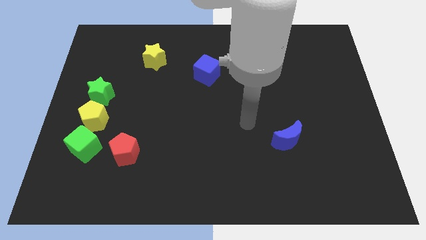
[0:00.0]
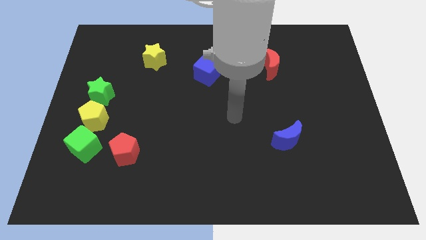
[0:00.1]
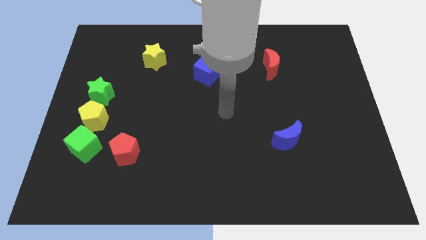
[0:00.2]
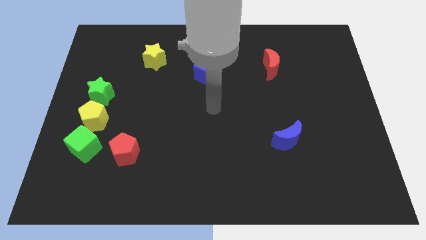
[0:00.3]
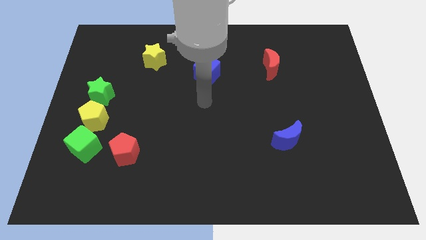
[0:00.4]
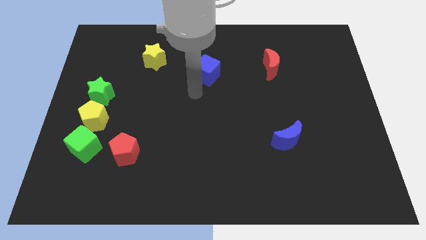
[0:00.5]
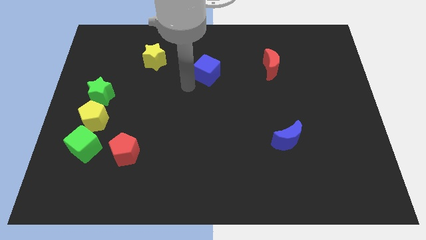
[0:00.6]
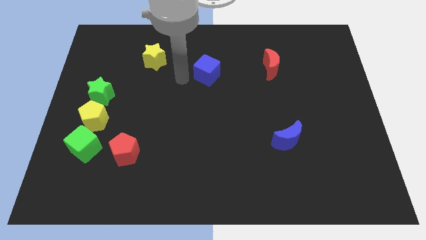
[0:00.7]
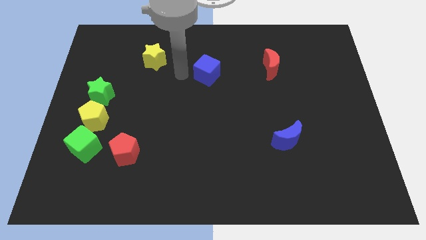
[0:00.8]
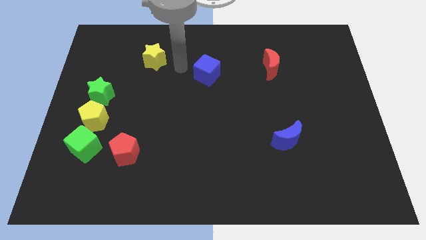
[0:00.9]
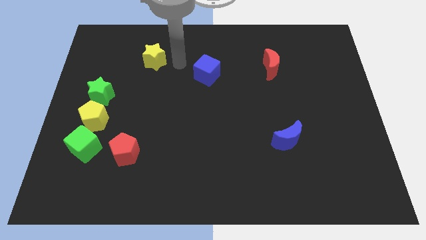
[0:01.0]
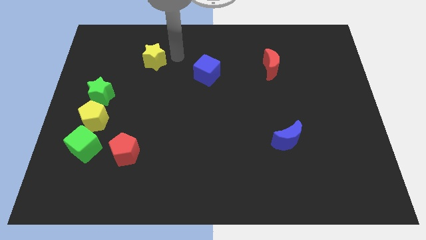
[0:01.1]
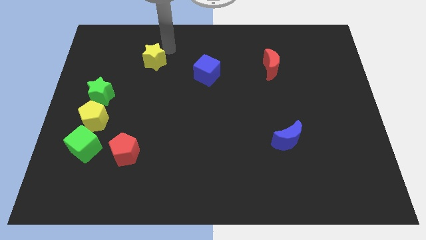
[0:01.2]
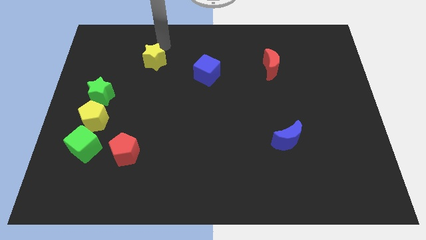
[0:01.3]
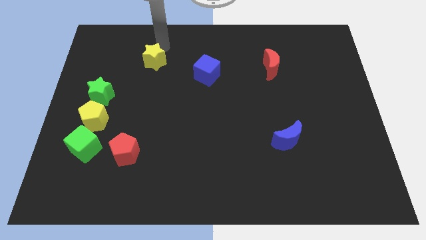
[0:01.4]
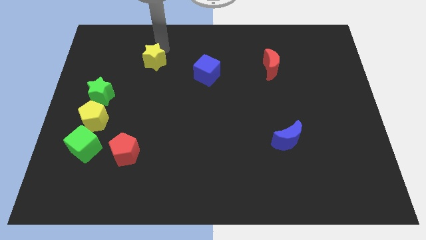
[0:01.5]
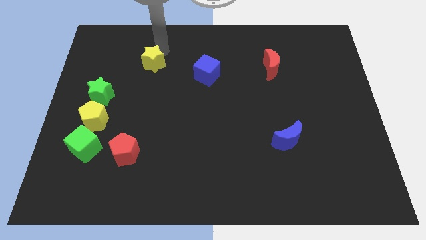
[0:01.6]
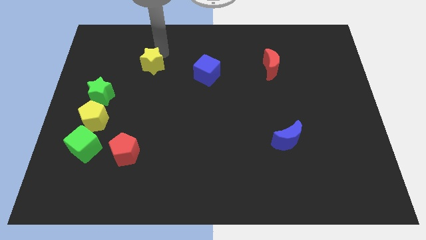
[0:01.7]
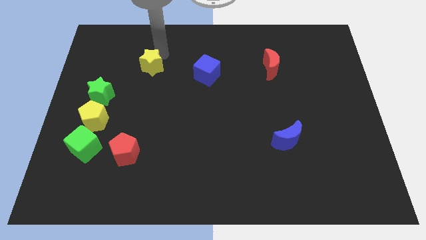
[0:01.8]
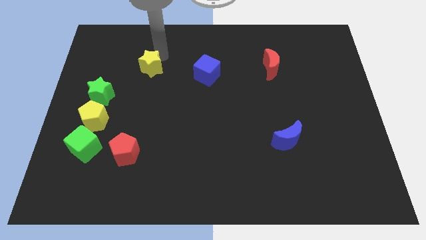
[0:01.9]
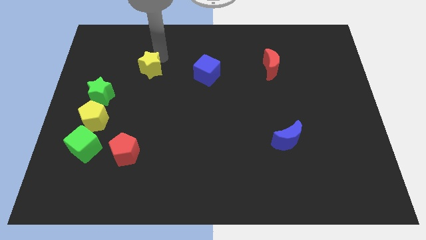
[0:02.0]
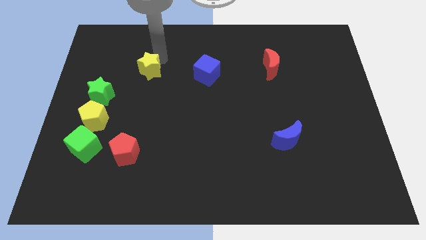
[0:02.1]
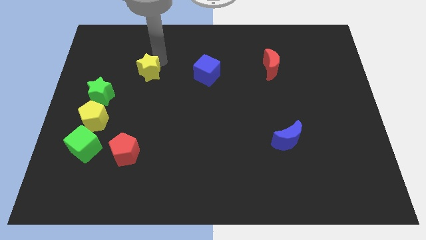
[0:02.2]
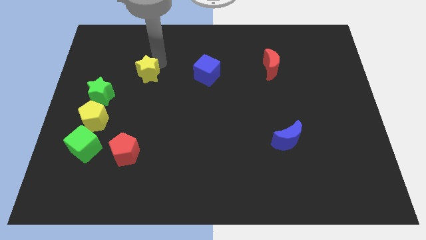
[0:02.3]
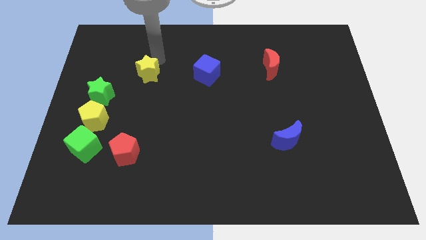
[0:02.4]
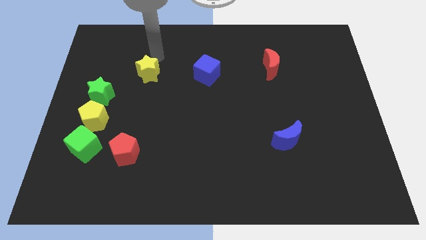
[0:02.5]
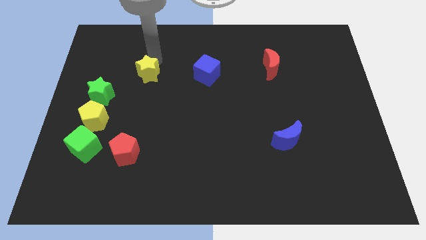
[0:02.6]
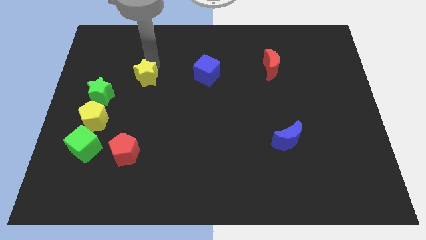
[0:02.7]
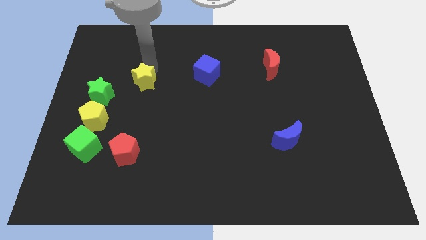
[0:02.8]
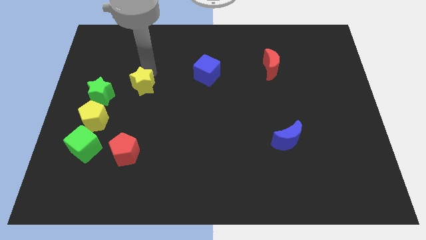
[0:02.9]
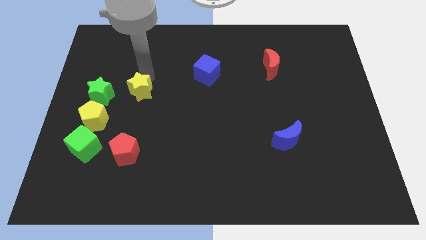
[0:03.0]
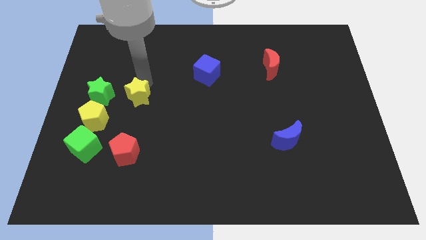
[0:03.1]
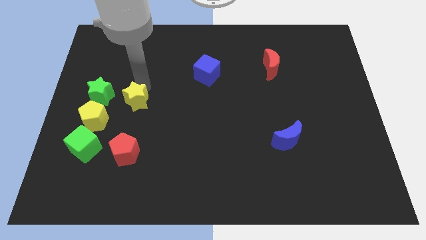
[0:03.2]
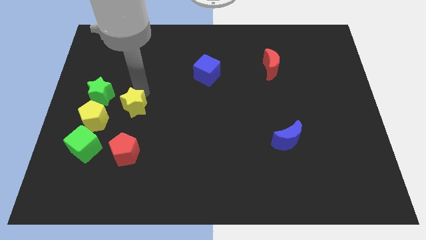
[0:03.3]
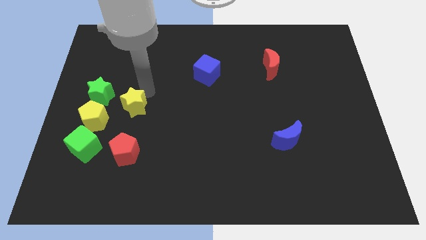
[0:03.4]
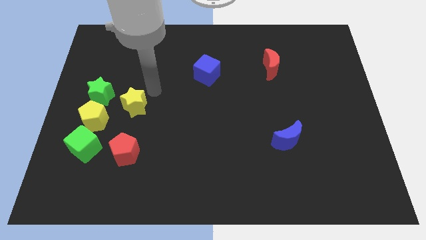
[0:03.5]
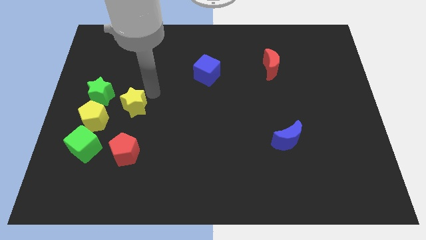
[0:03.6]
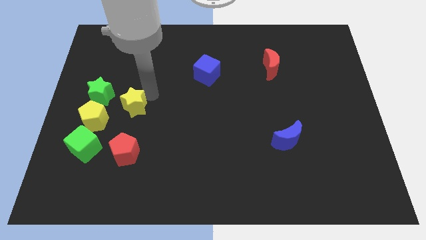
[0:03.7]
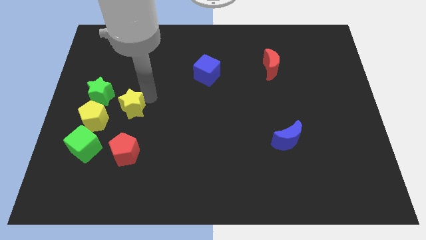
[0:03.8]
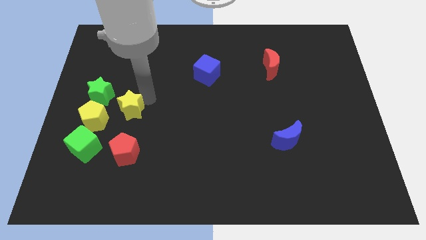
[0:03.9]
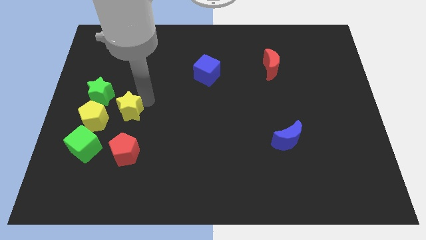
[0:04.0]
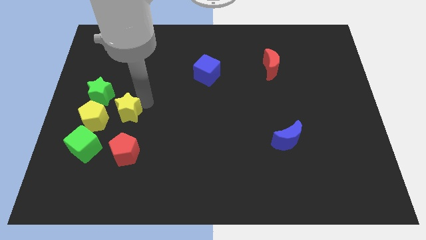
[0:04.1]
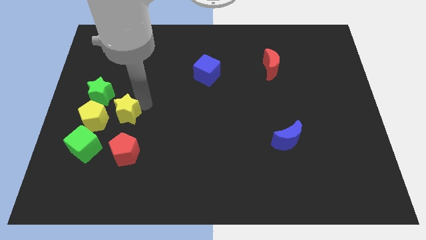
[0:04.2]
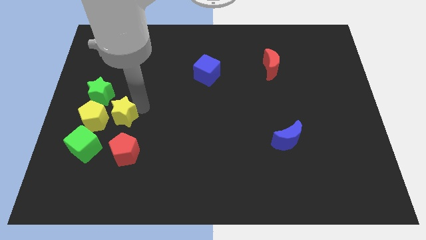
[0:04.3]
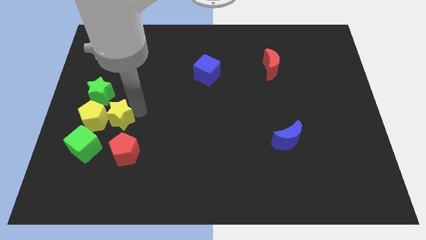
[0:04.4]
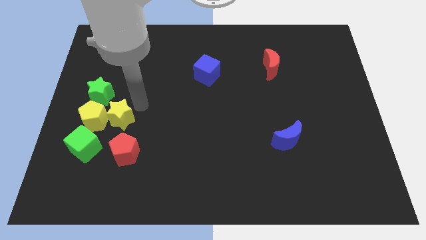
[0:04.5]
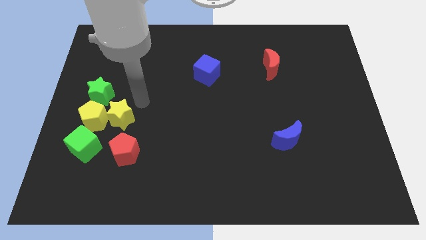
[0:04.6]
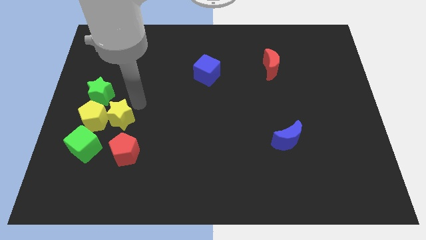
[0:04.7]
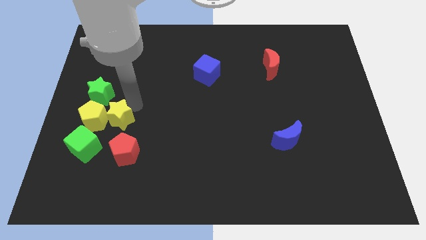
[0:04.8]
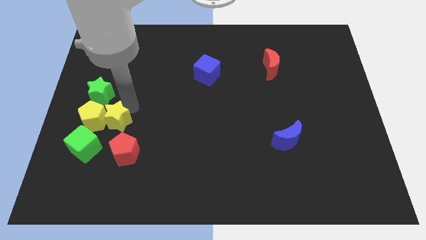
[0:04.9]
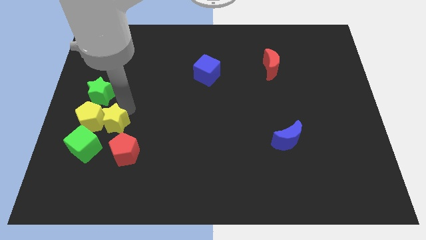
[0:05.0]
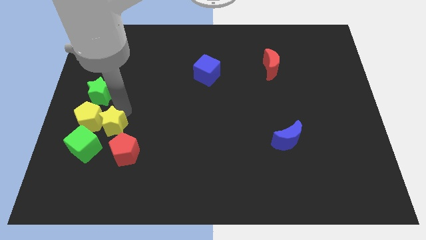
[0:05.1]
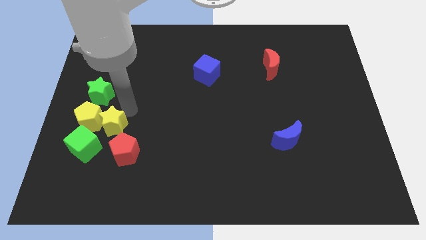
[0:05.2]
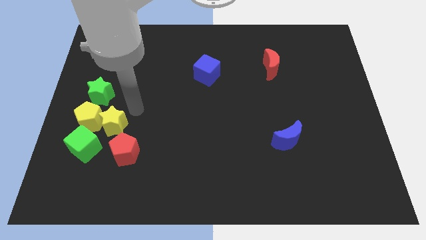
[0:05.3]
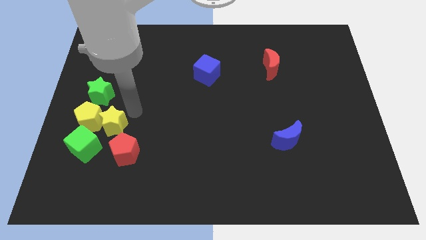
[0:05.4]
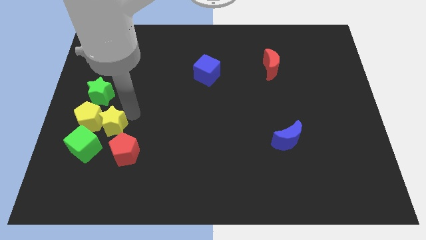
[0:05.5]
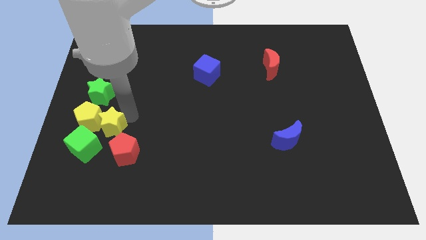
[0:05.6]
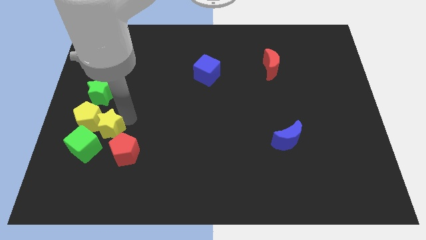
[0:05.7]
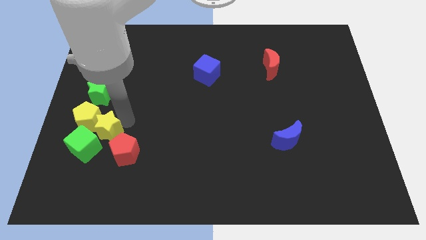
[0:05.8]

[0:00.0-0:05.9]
move the yellow star towards the green cube

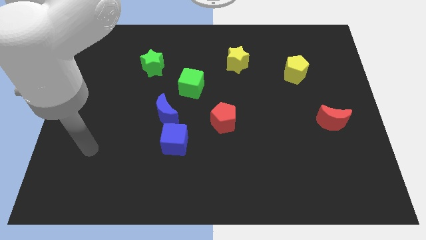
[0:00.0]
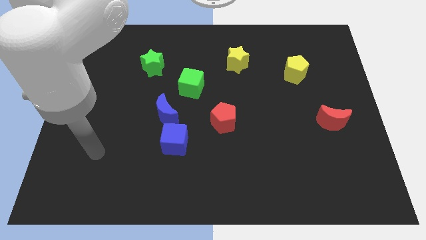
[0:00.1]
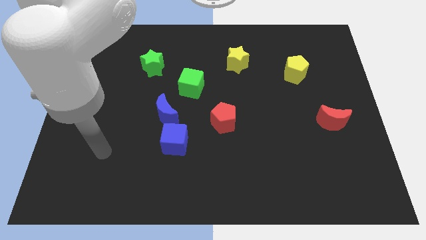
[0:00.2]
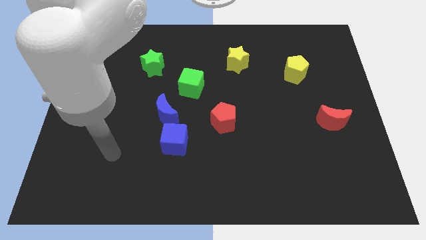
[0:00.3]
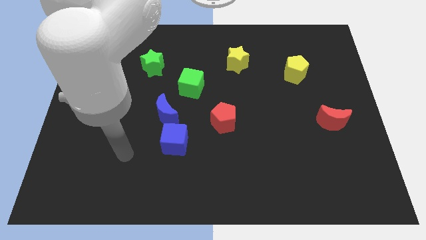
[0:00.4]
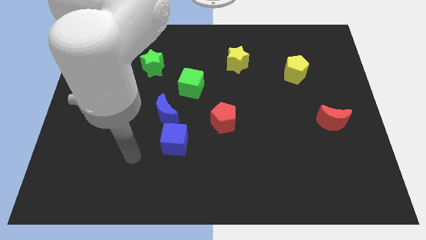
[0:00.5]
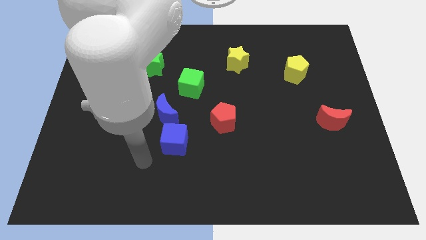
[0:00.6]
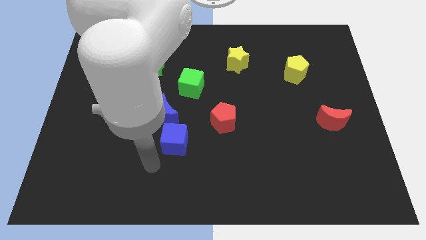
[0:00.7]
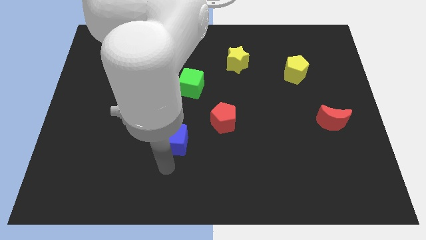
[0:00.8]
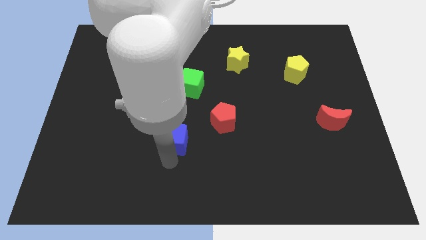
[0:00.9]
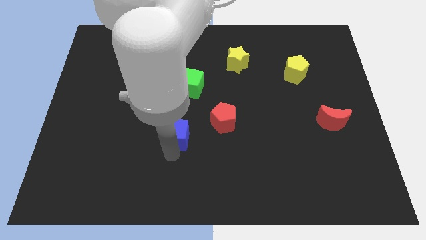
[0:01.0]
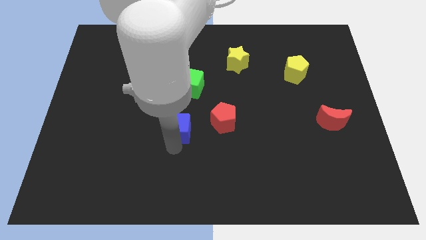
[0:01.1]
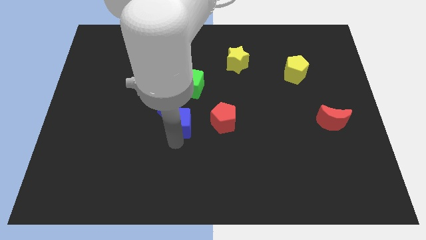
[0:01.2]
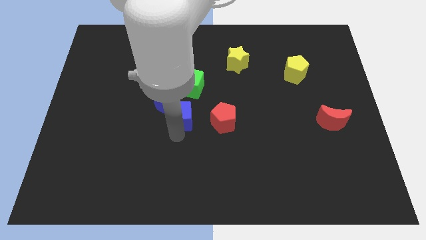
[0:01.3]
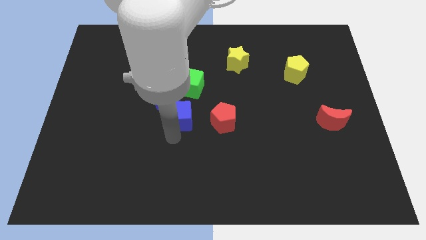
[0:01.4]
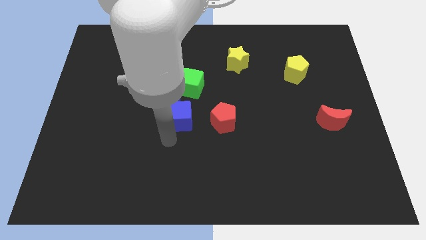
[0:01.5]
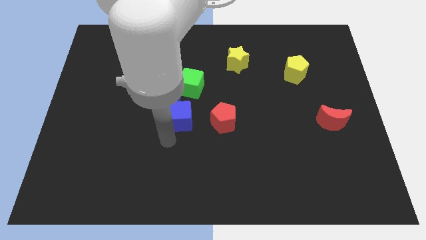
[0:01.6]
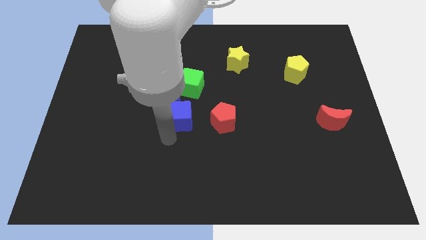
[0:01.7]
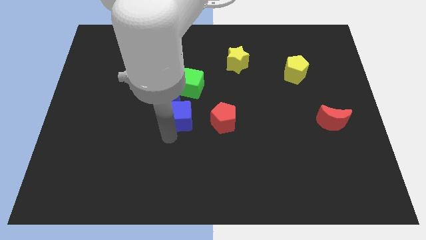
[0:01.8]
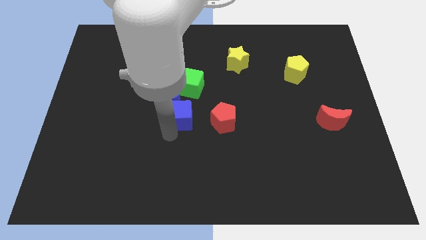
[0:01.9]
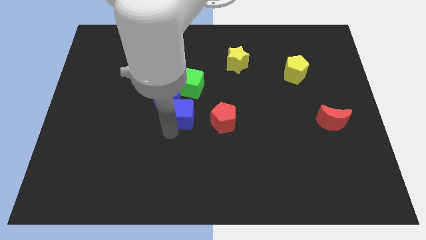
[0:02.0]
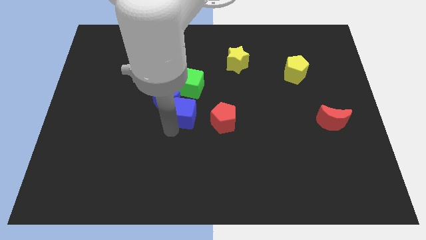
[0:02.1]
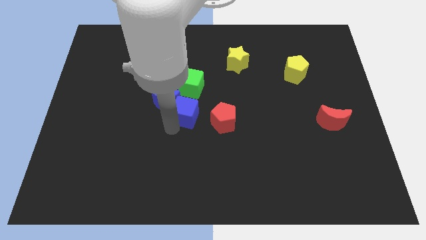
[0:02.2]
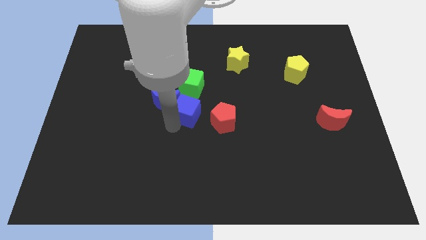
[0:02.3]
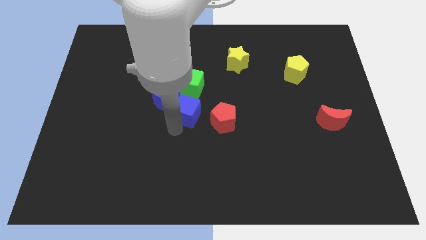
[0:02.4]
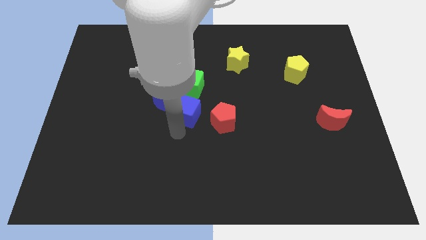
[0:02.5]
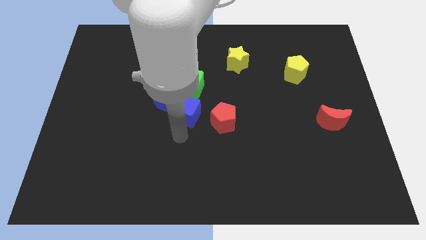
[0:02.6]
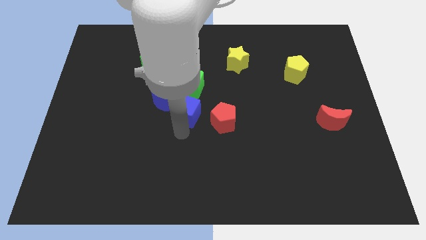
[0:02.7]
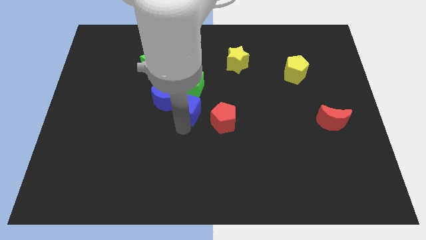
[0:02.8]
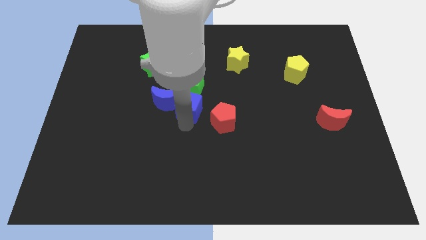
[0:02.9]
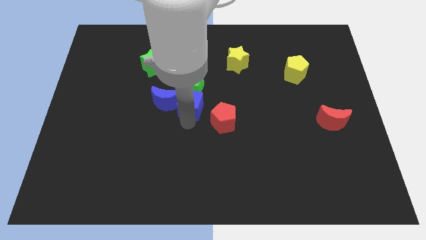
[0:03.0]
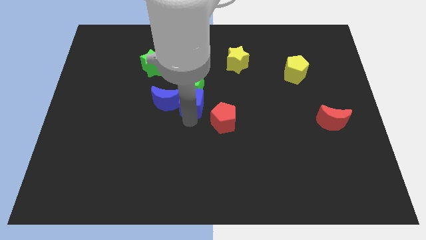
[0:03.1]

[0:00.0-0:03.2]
slide the blue cube close to the green cube
